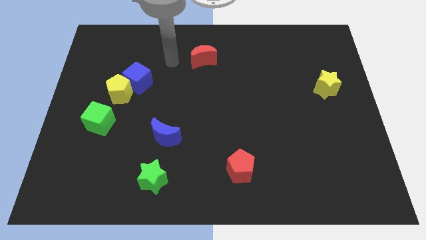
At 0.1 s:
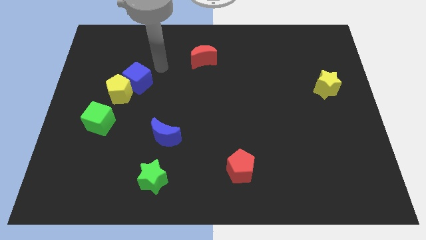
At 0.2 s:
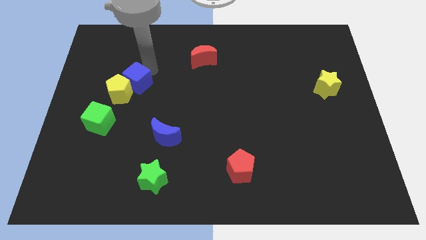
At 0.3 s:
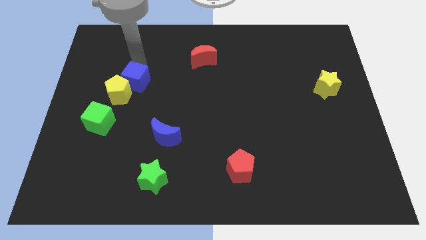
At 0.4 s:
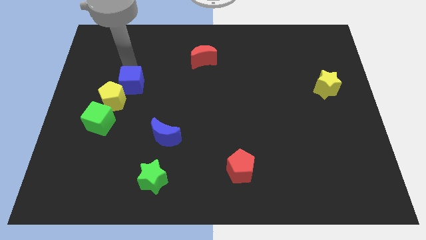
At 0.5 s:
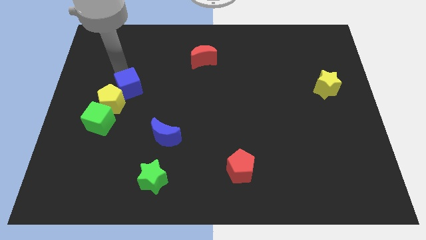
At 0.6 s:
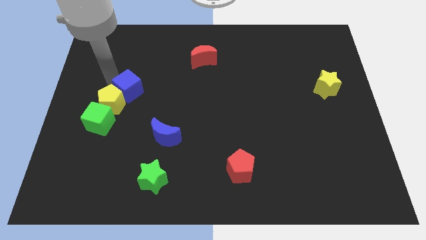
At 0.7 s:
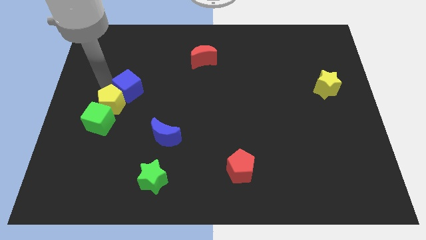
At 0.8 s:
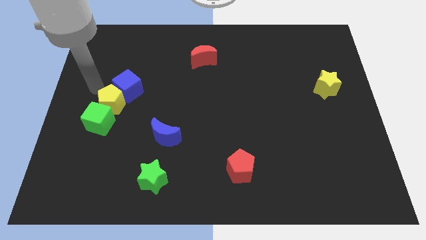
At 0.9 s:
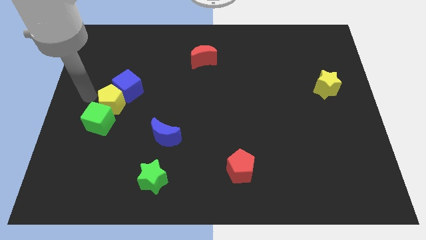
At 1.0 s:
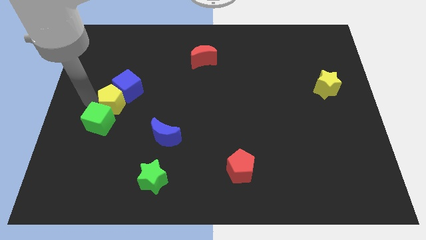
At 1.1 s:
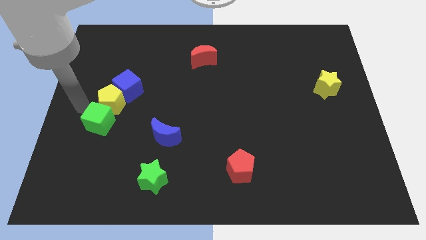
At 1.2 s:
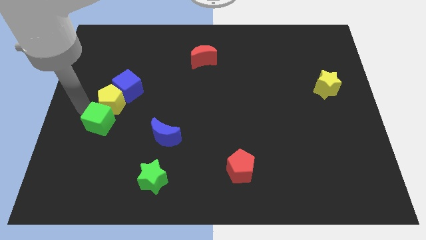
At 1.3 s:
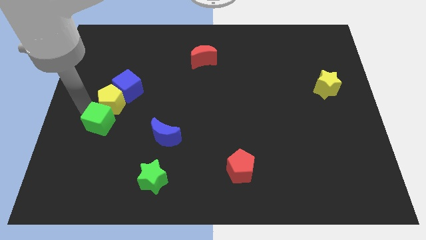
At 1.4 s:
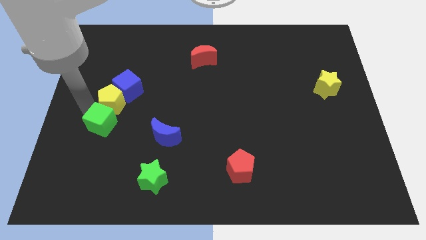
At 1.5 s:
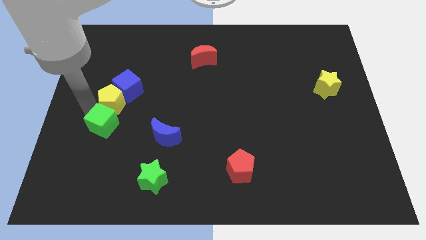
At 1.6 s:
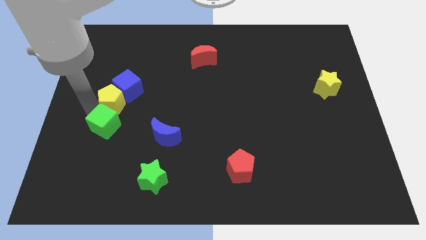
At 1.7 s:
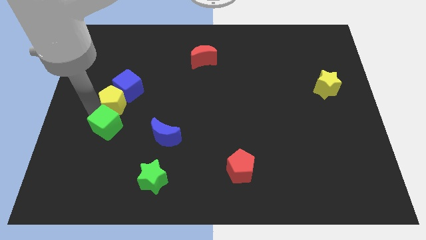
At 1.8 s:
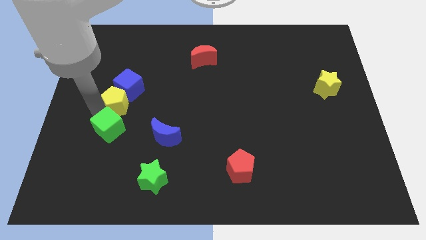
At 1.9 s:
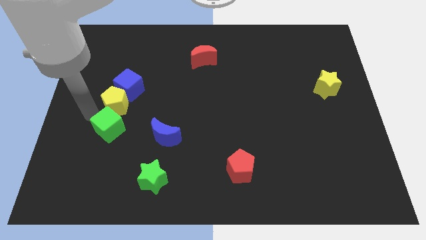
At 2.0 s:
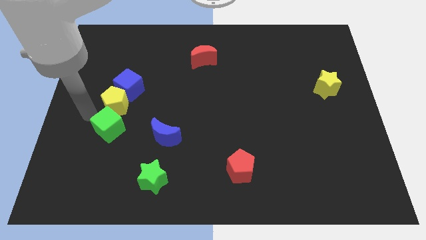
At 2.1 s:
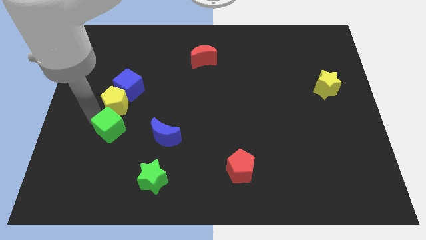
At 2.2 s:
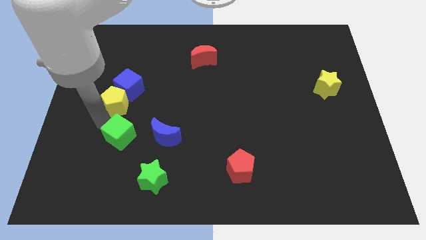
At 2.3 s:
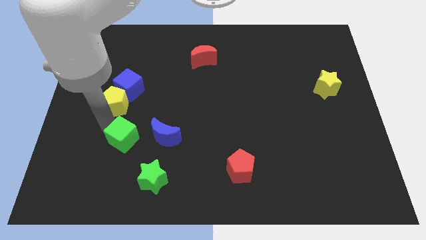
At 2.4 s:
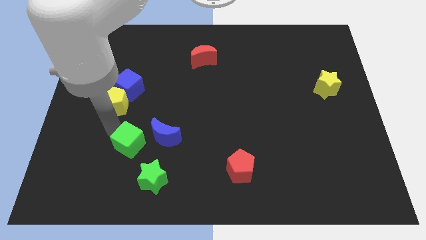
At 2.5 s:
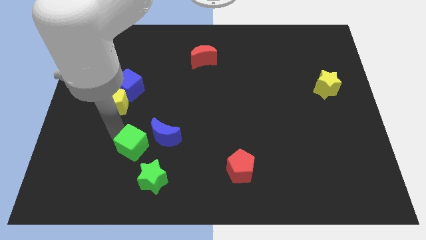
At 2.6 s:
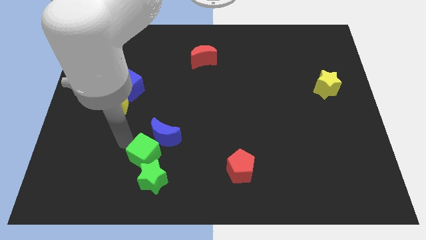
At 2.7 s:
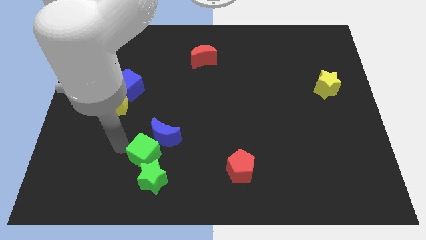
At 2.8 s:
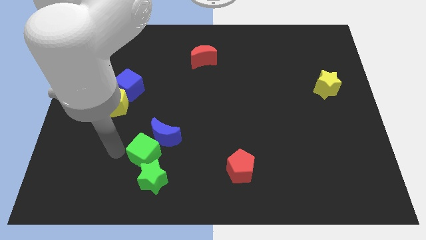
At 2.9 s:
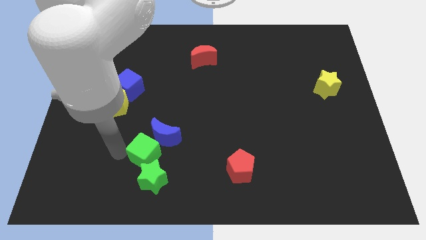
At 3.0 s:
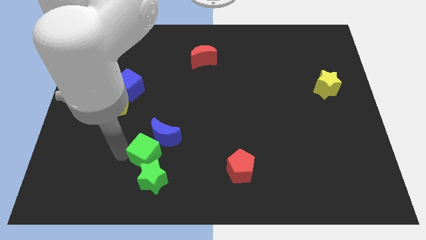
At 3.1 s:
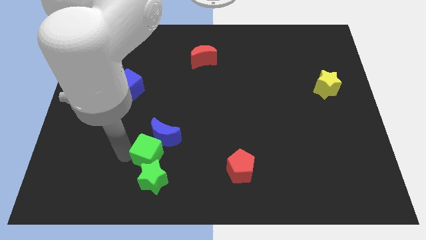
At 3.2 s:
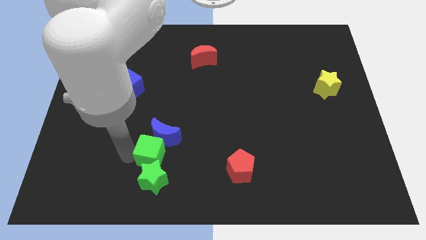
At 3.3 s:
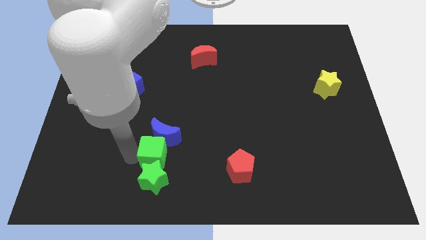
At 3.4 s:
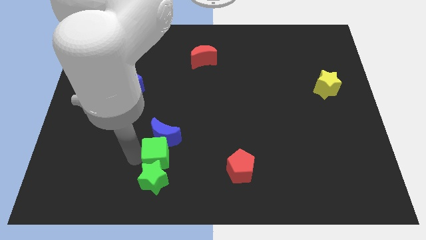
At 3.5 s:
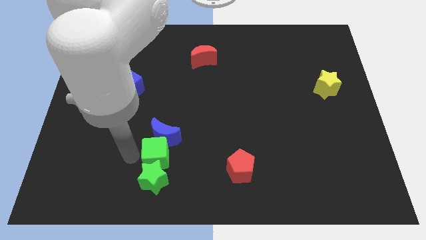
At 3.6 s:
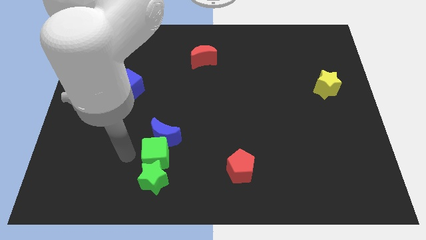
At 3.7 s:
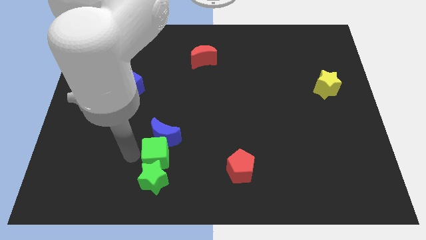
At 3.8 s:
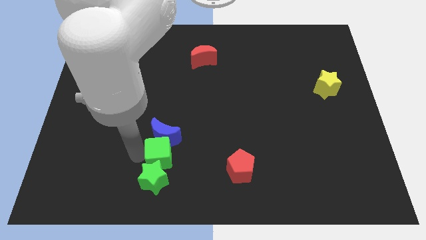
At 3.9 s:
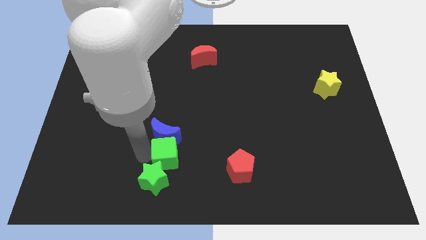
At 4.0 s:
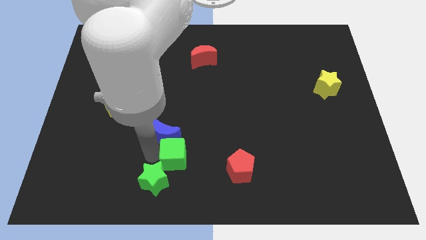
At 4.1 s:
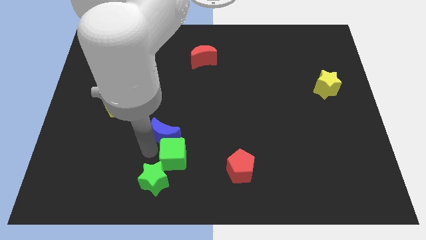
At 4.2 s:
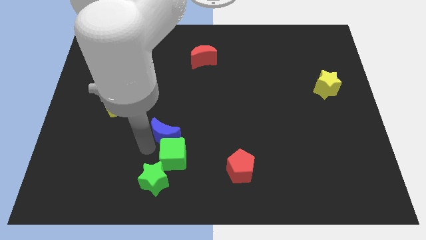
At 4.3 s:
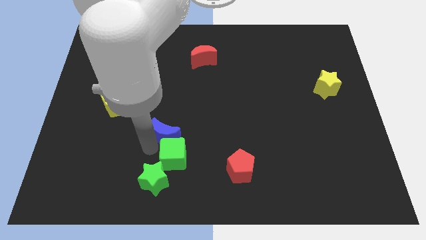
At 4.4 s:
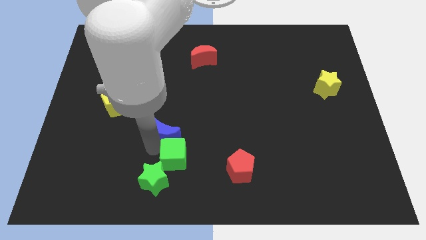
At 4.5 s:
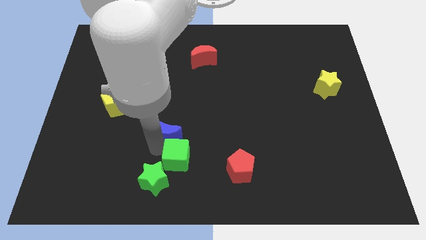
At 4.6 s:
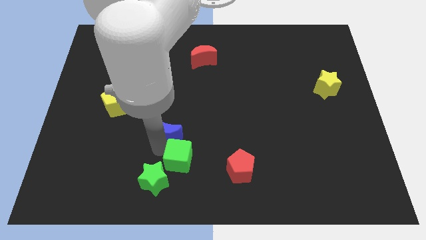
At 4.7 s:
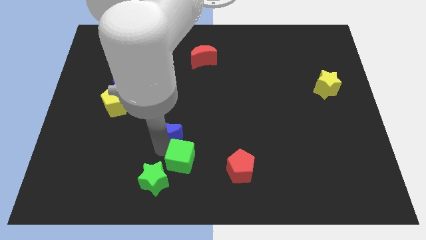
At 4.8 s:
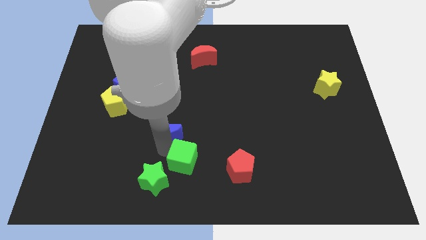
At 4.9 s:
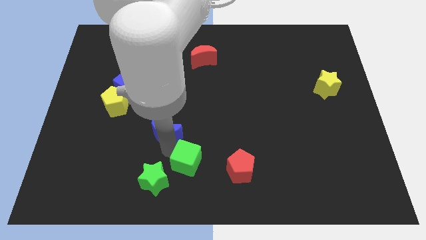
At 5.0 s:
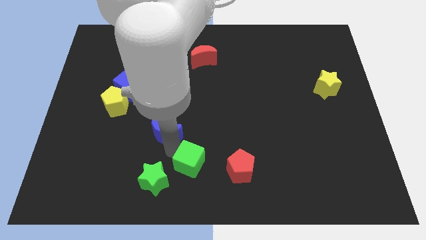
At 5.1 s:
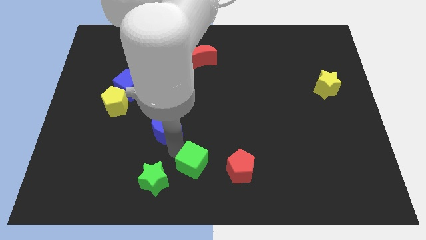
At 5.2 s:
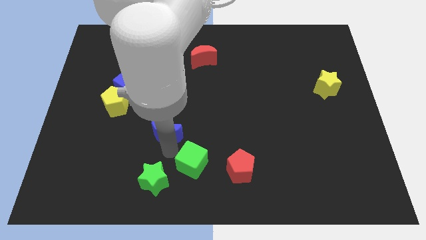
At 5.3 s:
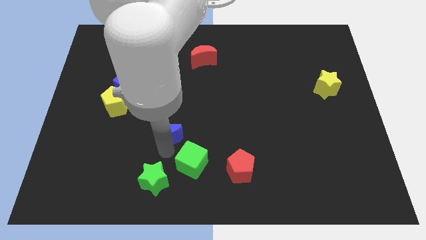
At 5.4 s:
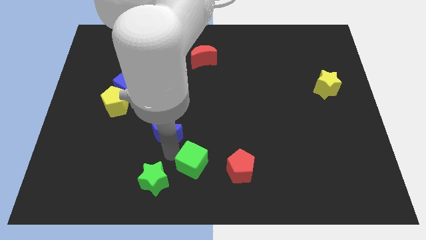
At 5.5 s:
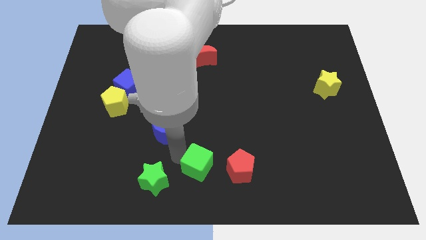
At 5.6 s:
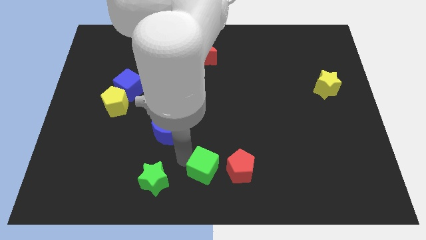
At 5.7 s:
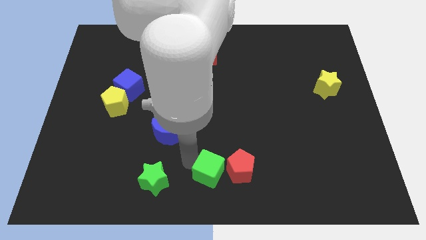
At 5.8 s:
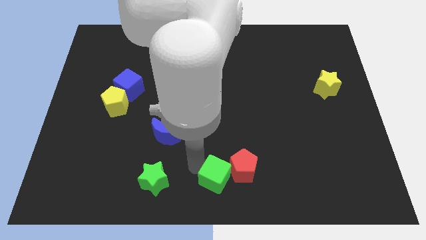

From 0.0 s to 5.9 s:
slide the green cube towards the red pentagon

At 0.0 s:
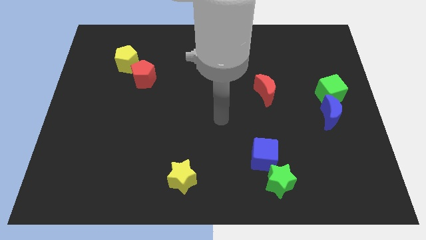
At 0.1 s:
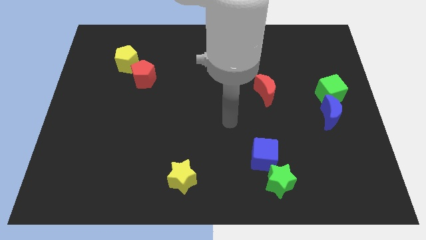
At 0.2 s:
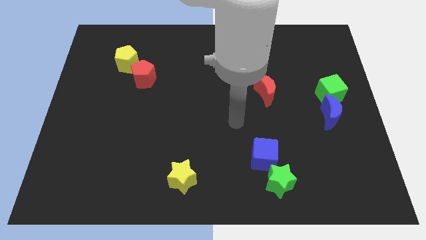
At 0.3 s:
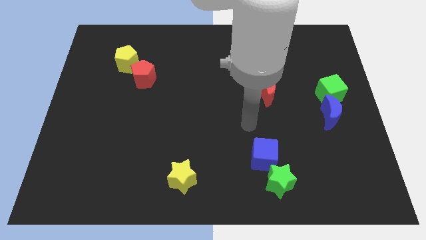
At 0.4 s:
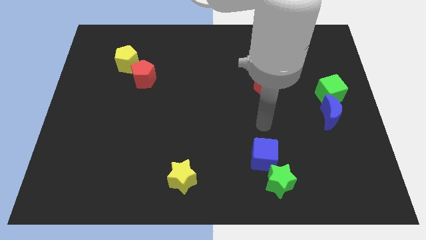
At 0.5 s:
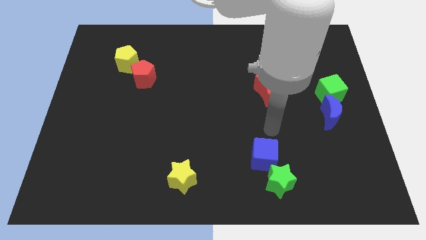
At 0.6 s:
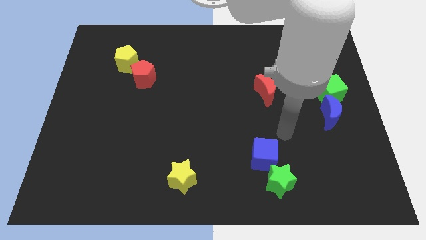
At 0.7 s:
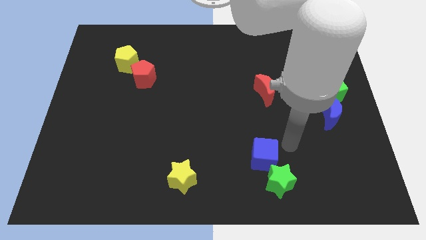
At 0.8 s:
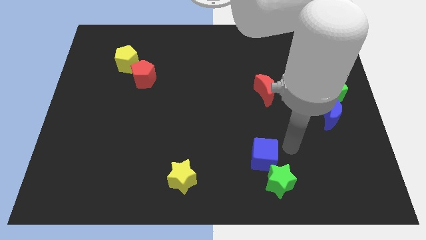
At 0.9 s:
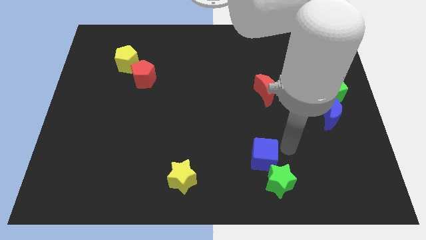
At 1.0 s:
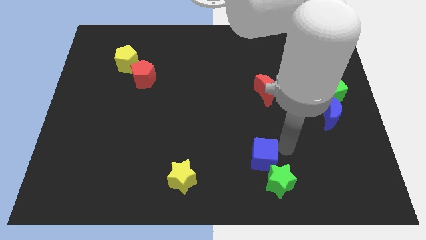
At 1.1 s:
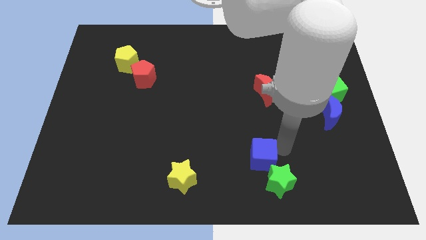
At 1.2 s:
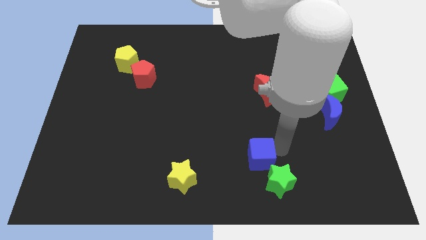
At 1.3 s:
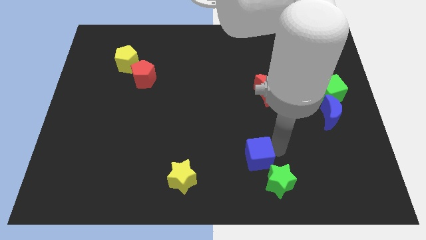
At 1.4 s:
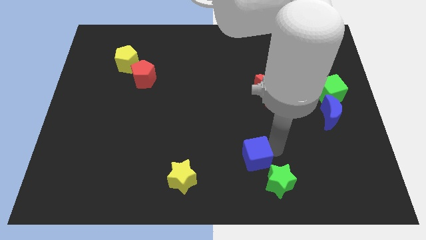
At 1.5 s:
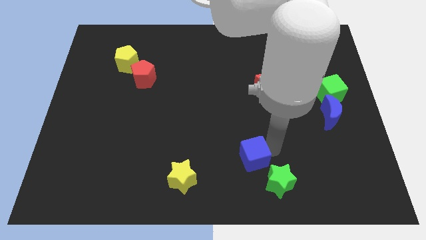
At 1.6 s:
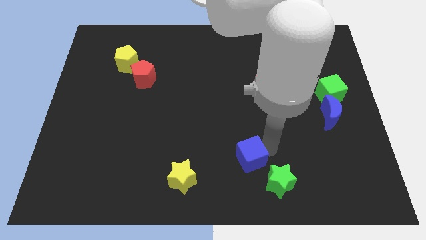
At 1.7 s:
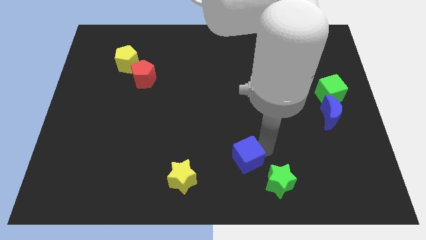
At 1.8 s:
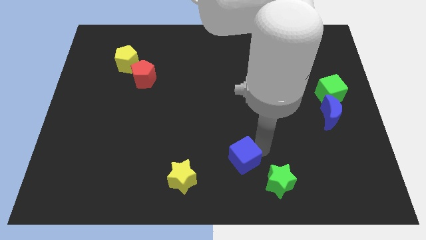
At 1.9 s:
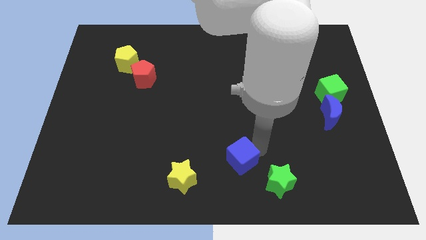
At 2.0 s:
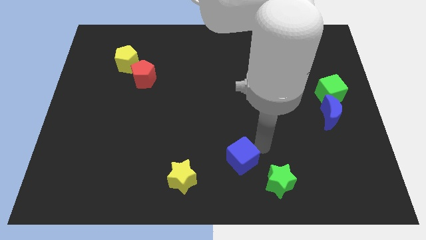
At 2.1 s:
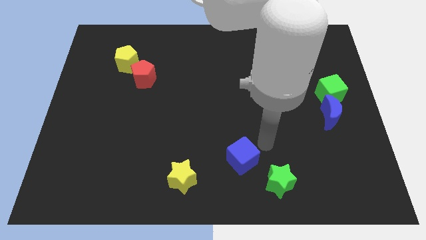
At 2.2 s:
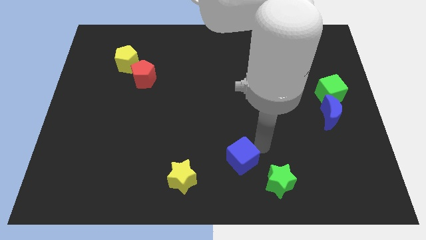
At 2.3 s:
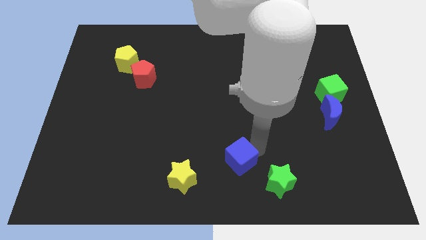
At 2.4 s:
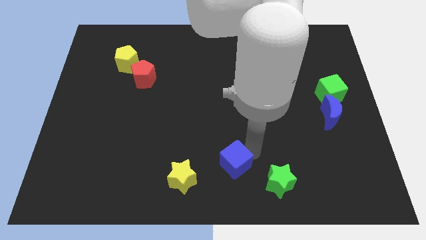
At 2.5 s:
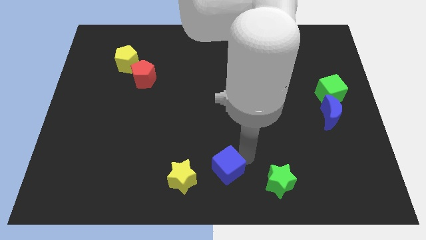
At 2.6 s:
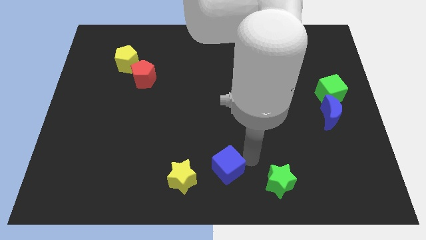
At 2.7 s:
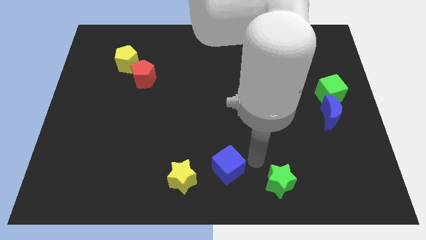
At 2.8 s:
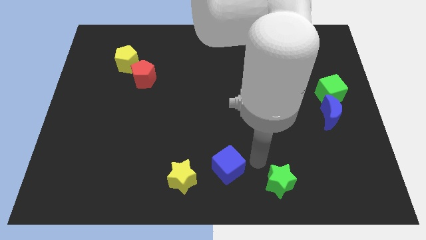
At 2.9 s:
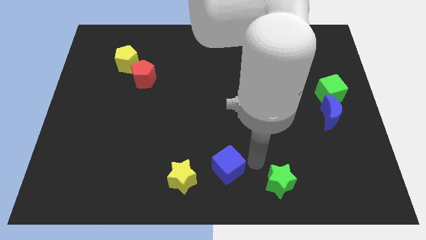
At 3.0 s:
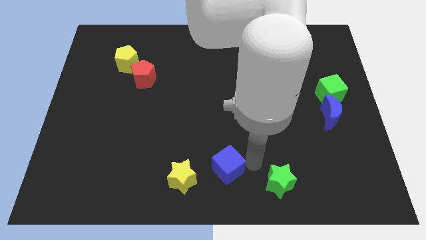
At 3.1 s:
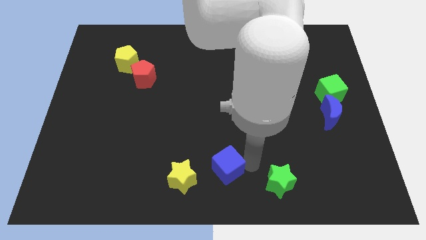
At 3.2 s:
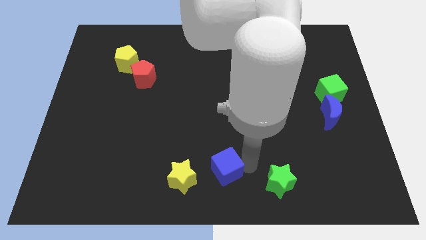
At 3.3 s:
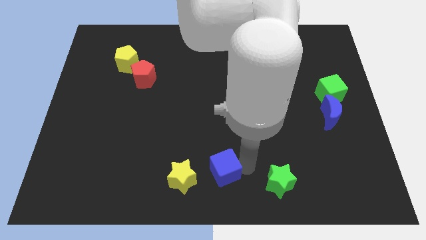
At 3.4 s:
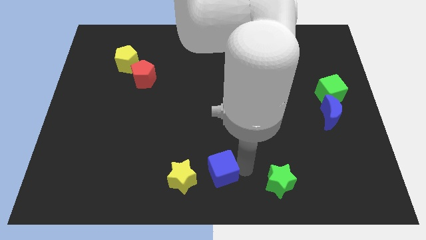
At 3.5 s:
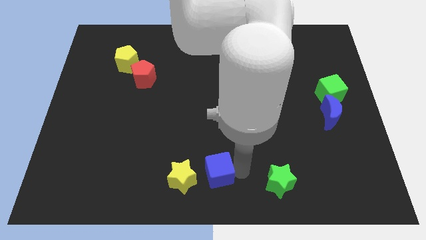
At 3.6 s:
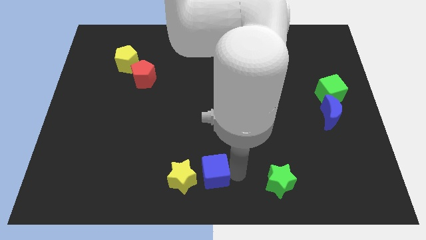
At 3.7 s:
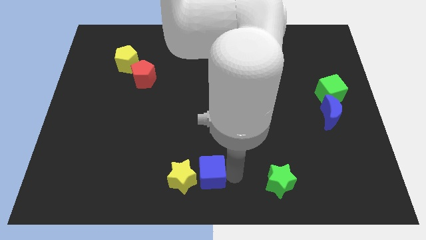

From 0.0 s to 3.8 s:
put the blue cube to the yellow star
